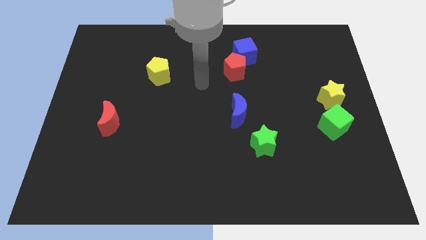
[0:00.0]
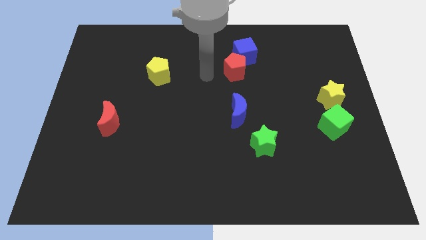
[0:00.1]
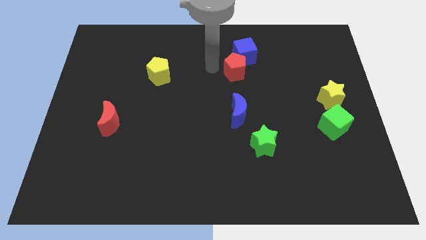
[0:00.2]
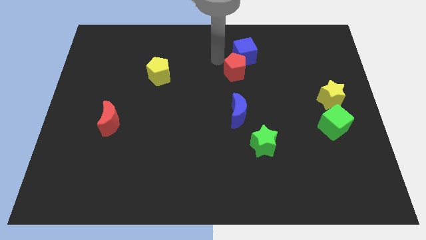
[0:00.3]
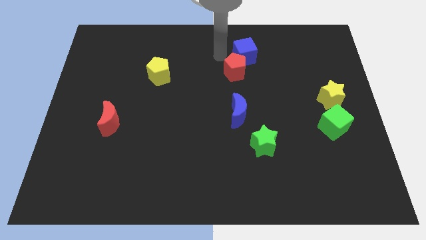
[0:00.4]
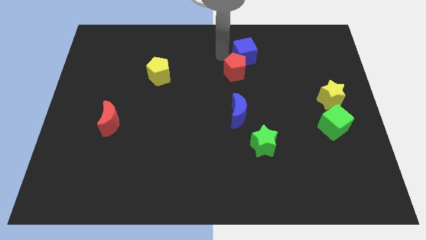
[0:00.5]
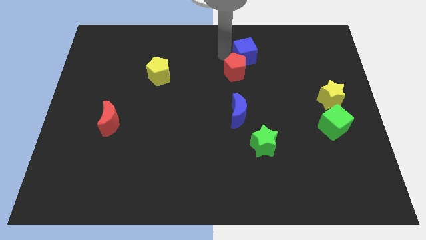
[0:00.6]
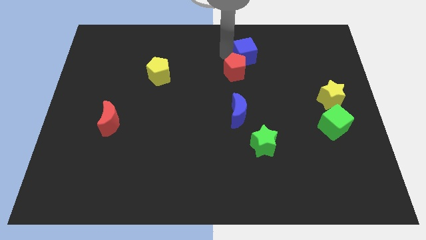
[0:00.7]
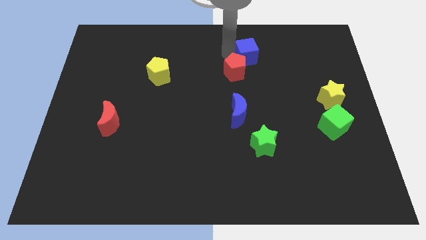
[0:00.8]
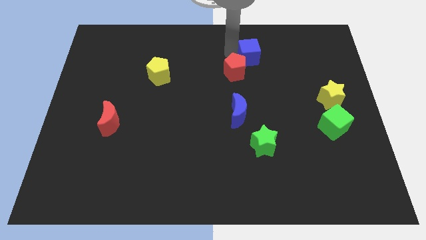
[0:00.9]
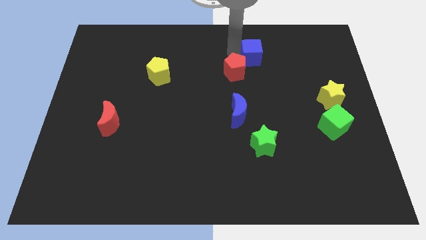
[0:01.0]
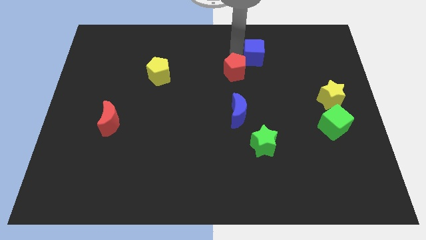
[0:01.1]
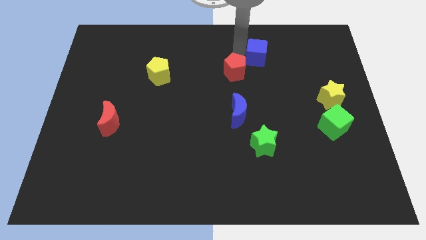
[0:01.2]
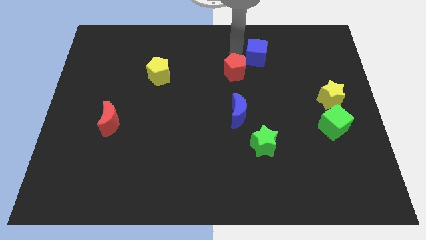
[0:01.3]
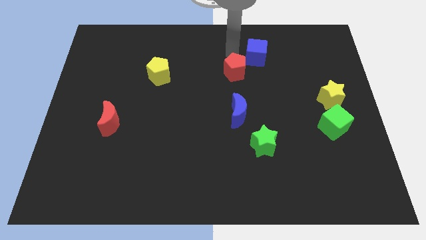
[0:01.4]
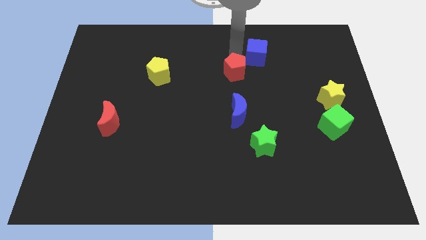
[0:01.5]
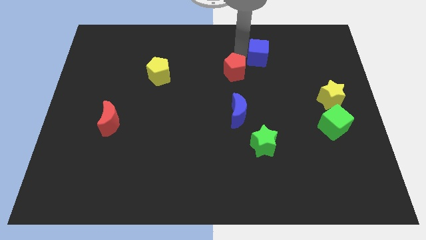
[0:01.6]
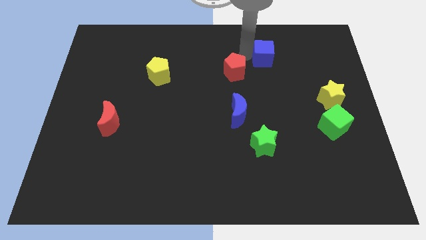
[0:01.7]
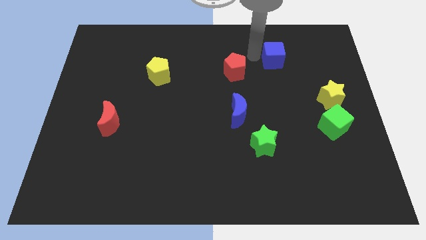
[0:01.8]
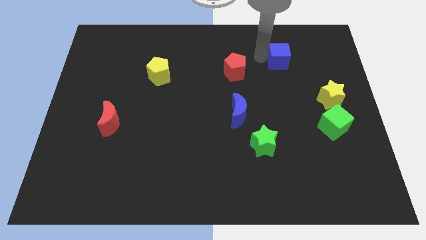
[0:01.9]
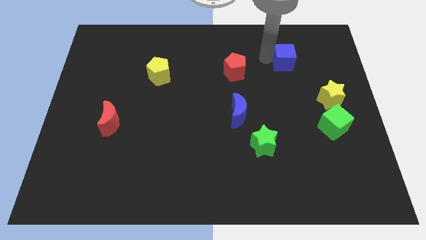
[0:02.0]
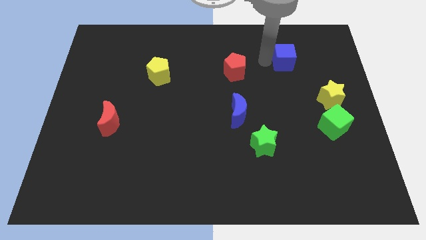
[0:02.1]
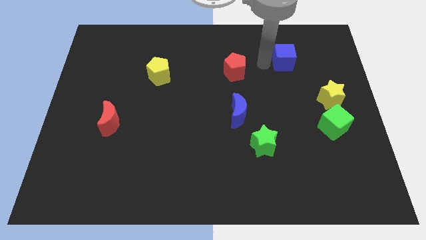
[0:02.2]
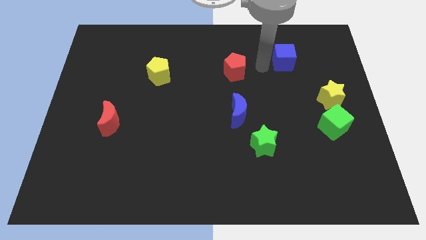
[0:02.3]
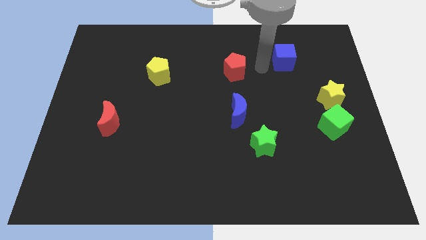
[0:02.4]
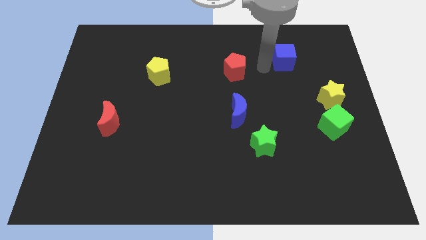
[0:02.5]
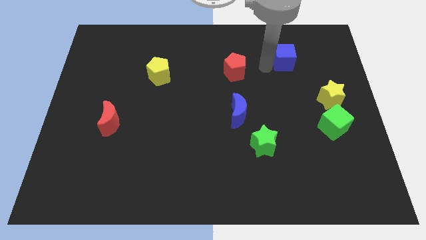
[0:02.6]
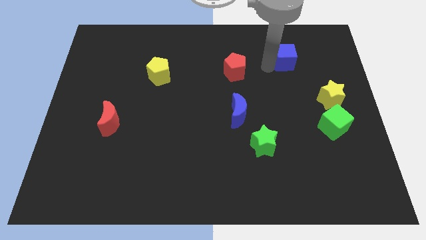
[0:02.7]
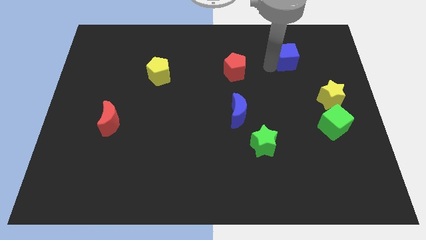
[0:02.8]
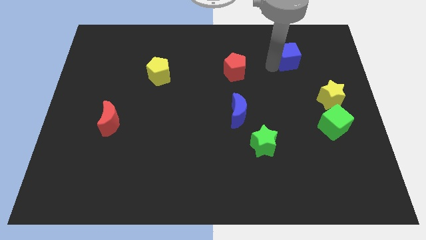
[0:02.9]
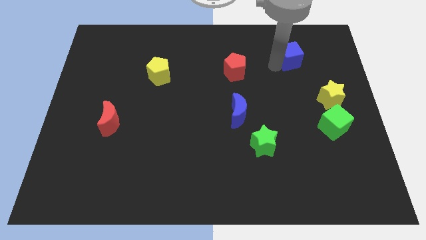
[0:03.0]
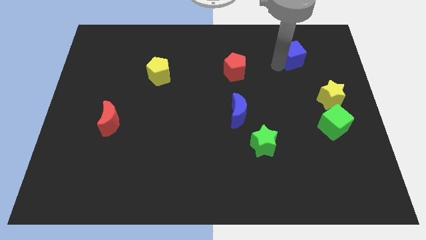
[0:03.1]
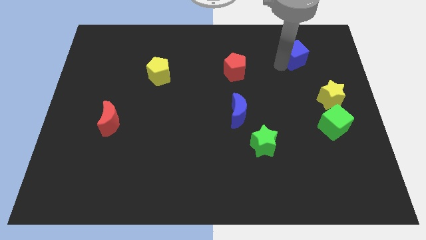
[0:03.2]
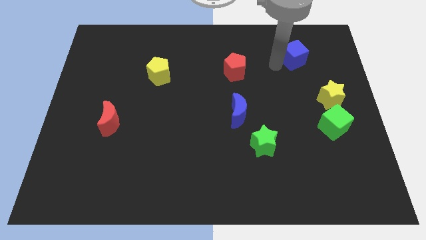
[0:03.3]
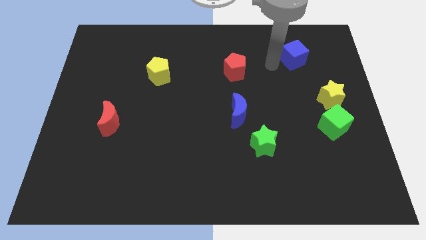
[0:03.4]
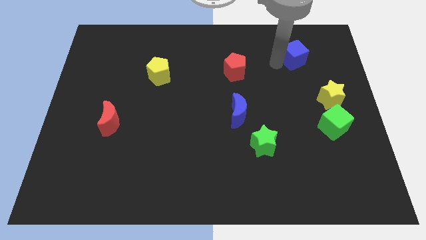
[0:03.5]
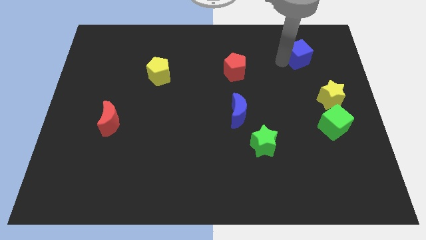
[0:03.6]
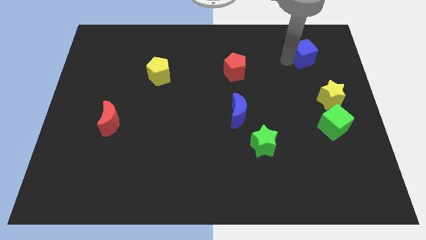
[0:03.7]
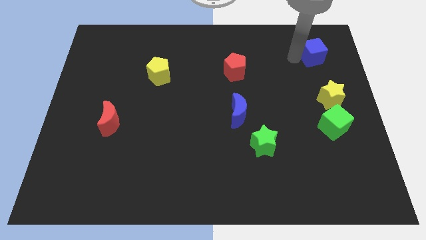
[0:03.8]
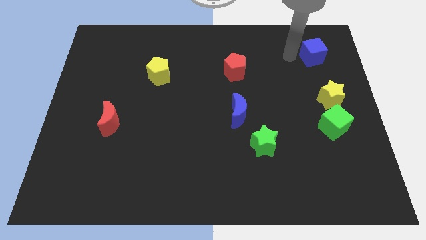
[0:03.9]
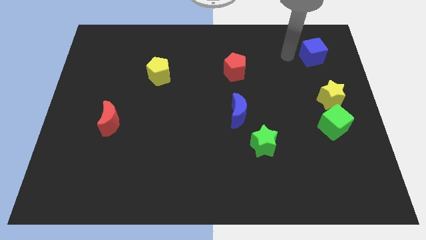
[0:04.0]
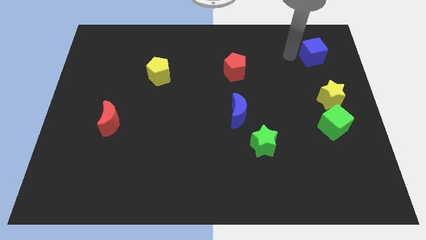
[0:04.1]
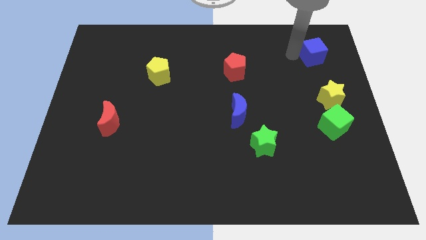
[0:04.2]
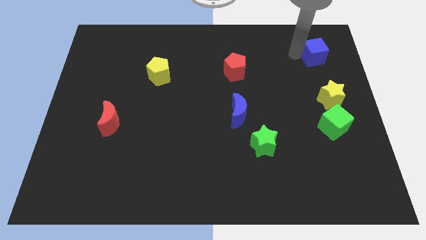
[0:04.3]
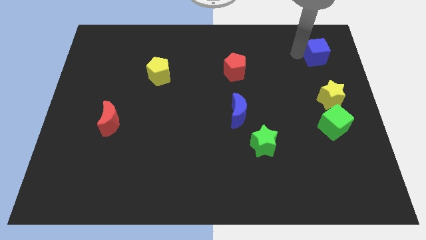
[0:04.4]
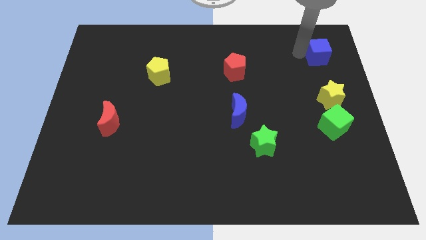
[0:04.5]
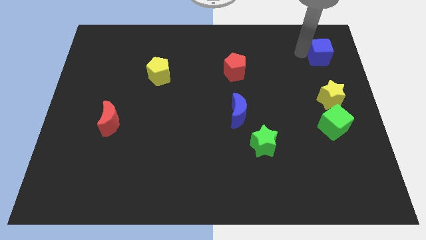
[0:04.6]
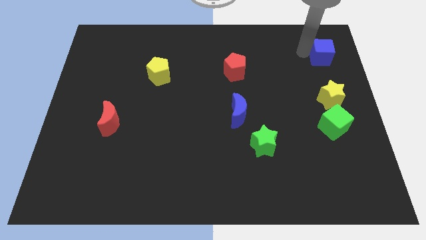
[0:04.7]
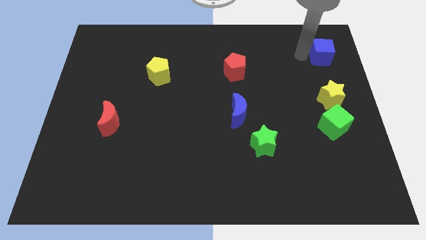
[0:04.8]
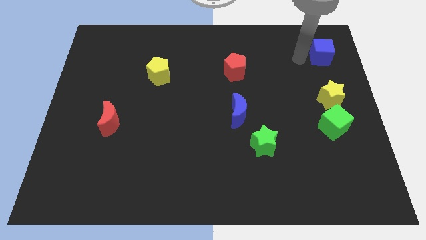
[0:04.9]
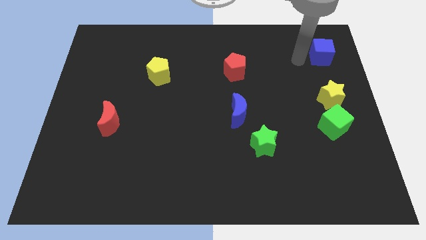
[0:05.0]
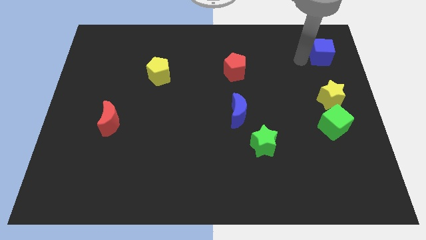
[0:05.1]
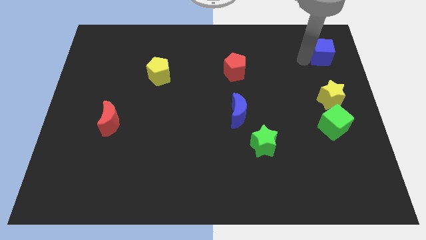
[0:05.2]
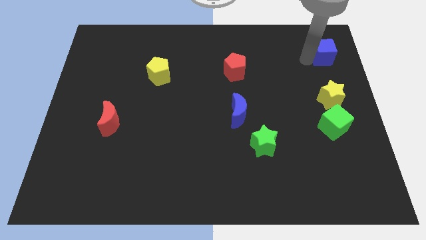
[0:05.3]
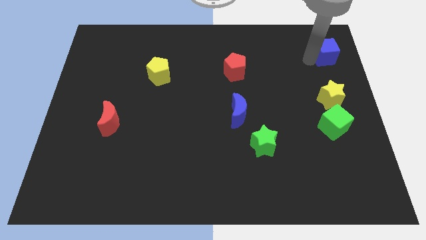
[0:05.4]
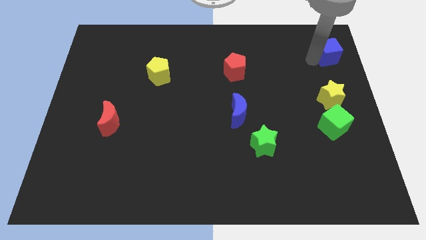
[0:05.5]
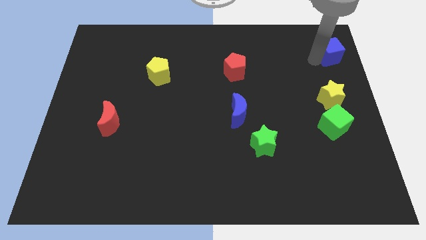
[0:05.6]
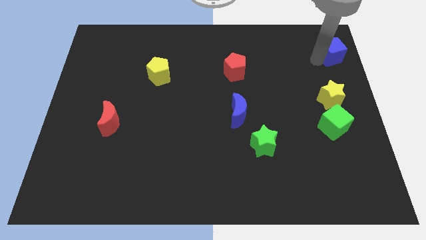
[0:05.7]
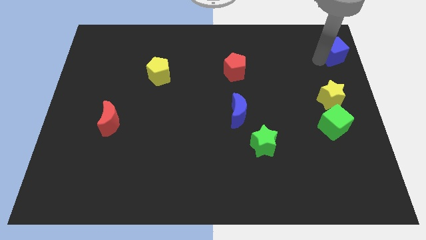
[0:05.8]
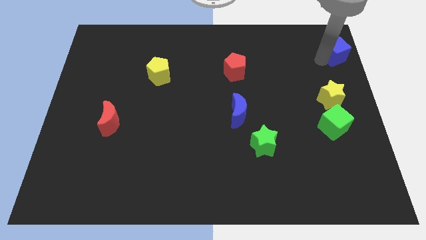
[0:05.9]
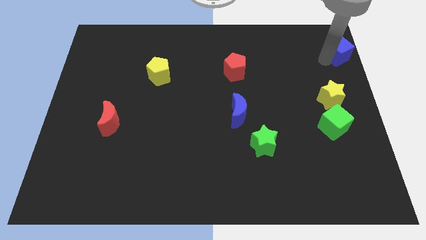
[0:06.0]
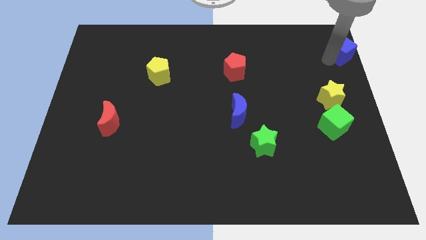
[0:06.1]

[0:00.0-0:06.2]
put the blue cube to the top right of the board

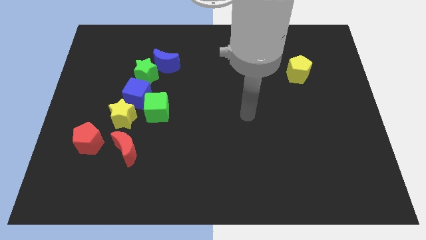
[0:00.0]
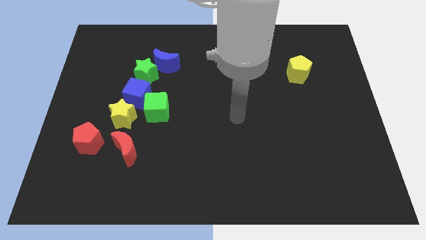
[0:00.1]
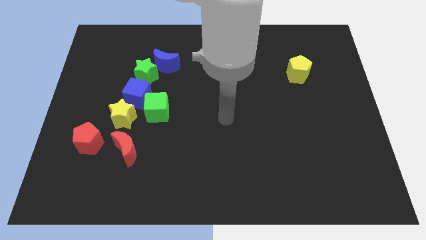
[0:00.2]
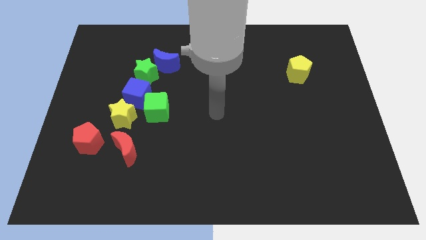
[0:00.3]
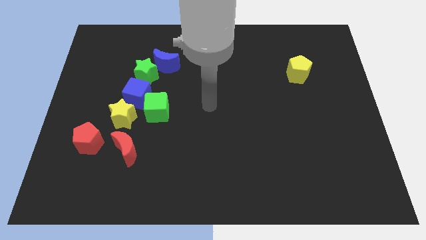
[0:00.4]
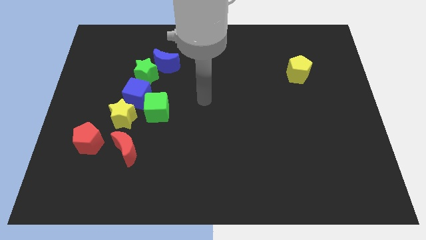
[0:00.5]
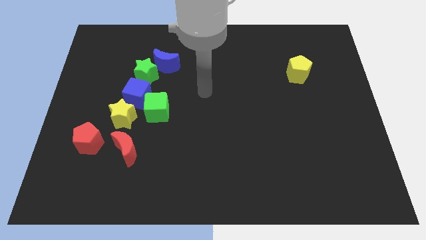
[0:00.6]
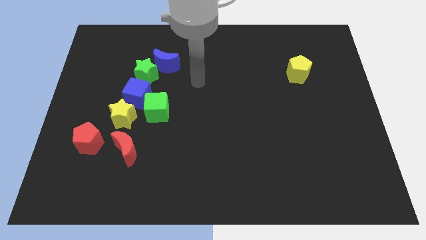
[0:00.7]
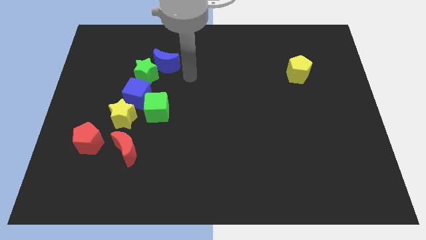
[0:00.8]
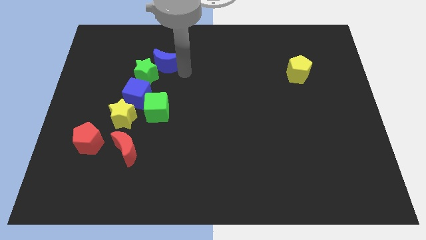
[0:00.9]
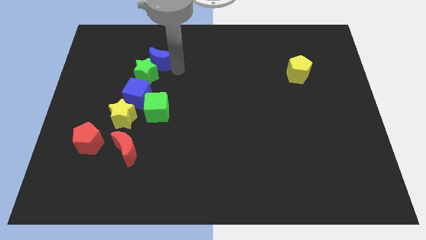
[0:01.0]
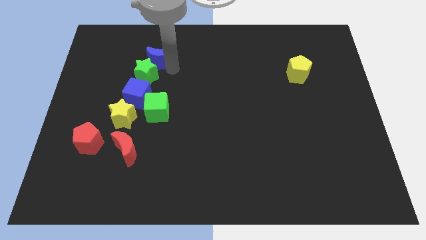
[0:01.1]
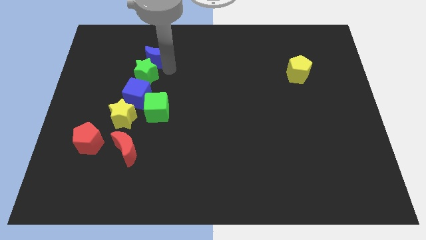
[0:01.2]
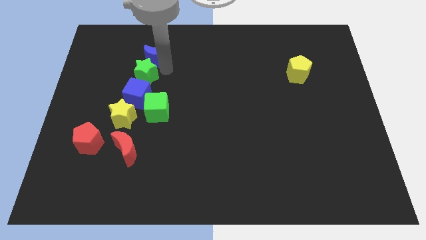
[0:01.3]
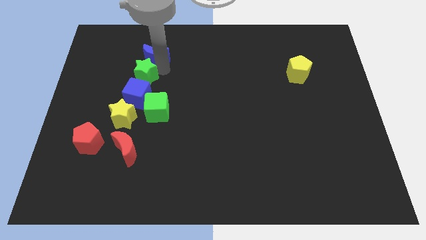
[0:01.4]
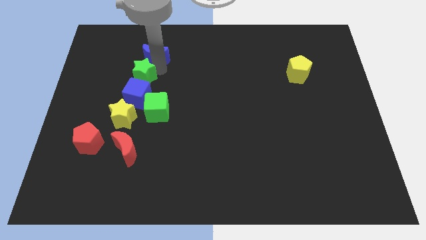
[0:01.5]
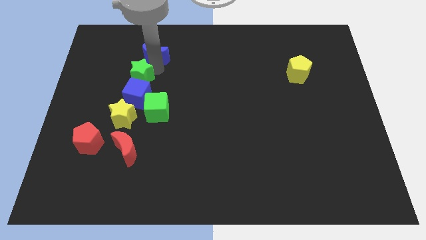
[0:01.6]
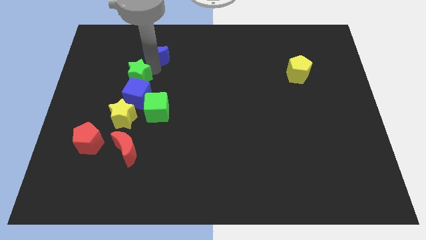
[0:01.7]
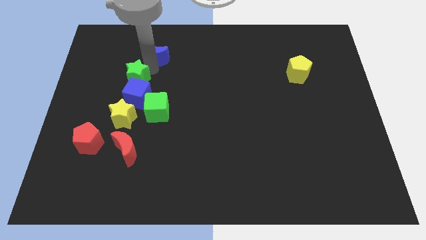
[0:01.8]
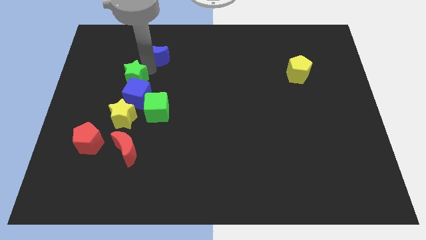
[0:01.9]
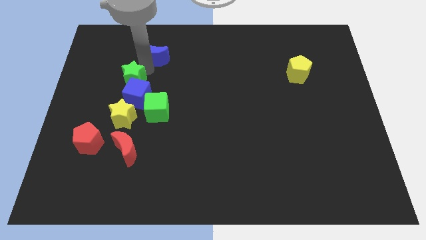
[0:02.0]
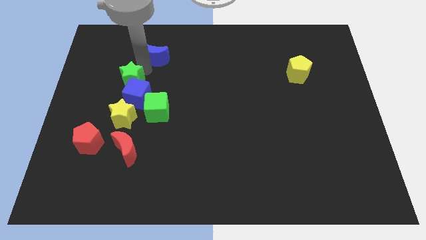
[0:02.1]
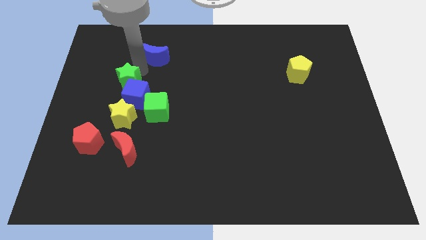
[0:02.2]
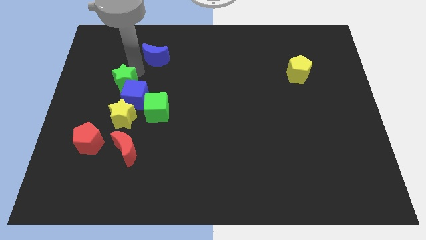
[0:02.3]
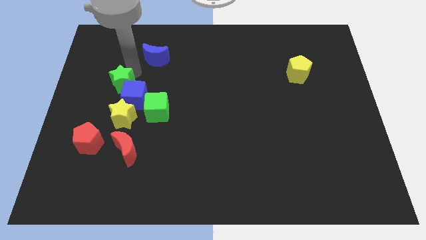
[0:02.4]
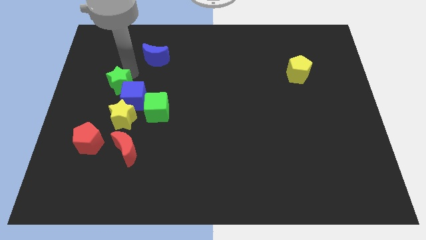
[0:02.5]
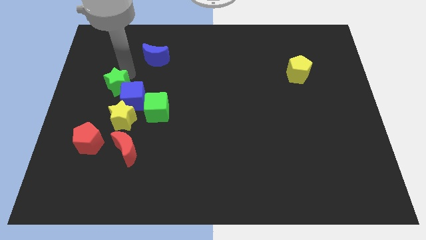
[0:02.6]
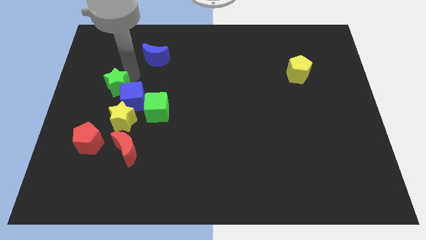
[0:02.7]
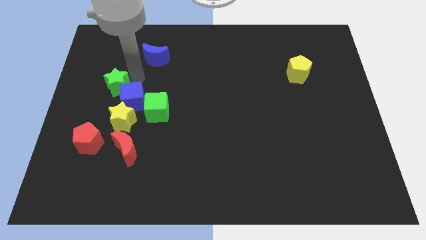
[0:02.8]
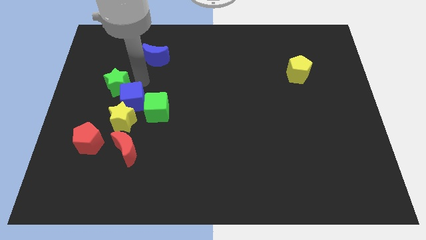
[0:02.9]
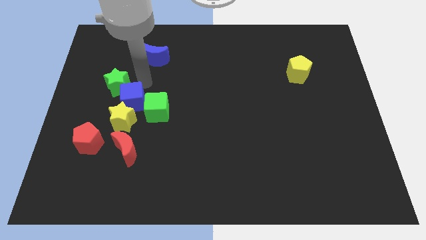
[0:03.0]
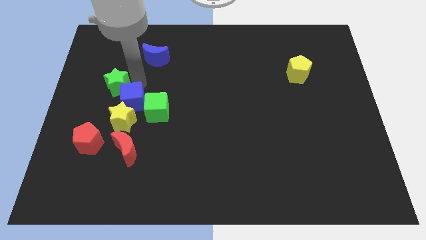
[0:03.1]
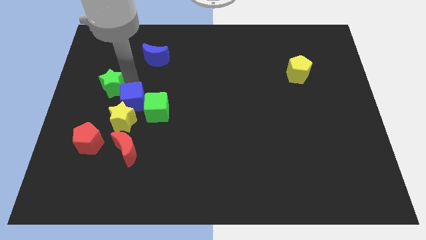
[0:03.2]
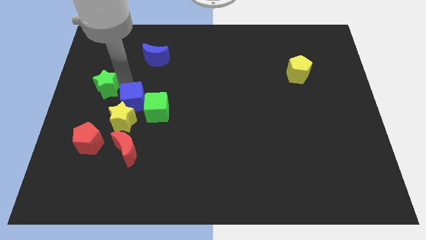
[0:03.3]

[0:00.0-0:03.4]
put the green star to the left side of the board
